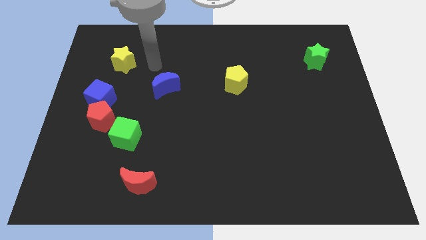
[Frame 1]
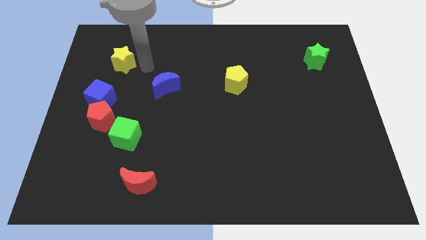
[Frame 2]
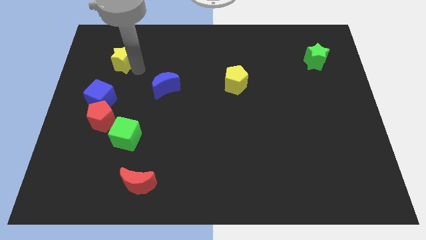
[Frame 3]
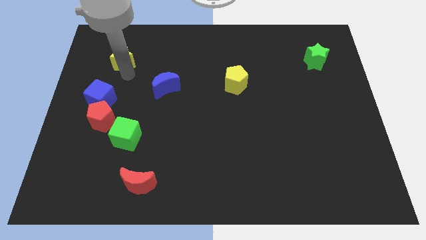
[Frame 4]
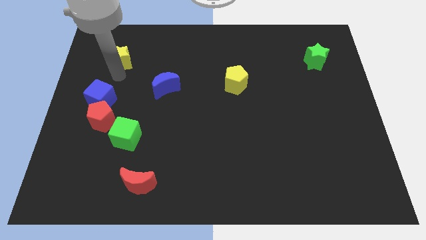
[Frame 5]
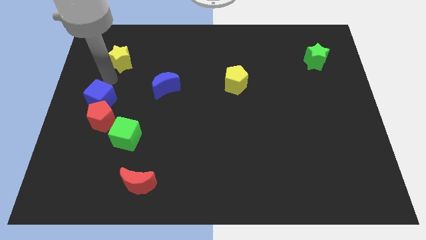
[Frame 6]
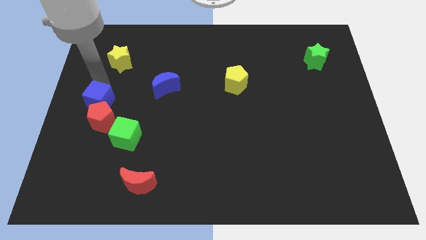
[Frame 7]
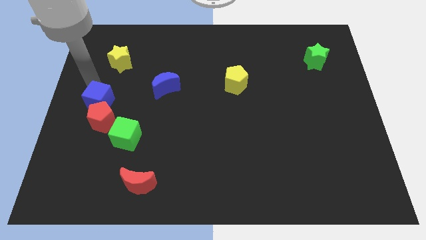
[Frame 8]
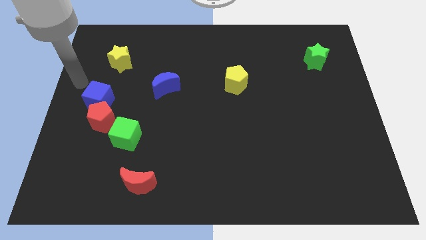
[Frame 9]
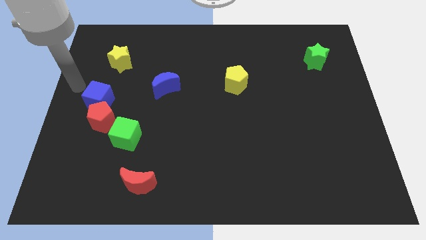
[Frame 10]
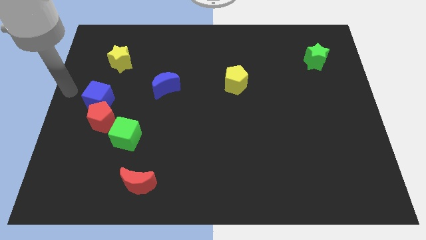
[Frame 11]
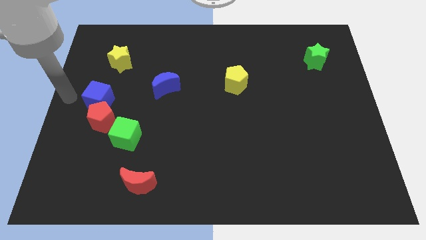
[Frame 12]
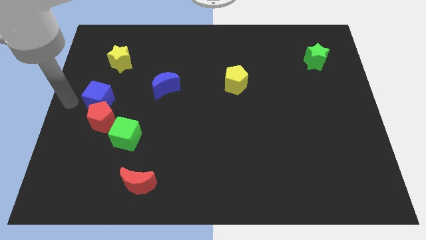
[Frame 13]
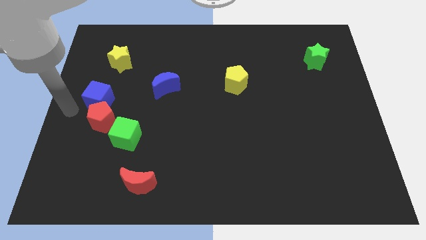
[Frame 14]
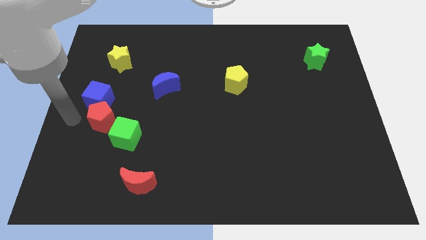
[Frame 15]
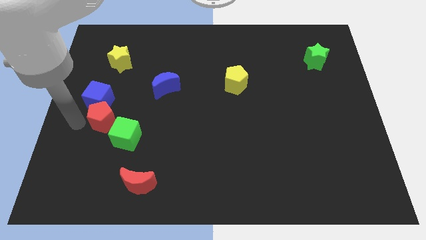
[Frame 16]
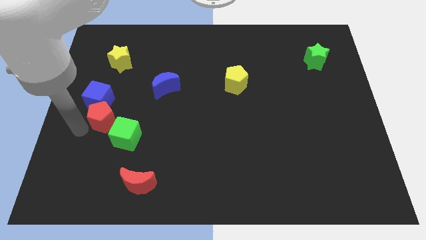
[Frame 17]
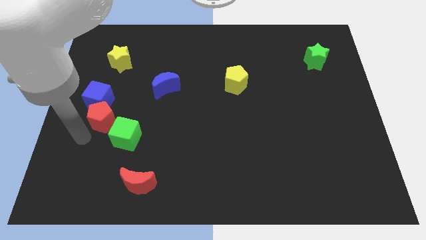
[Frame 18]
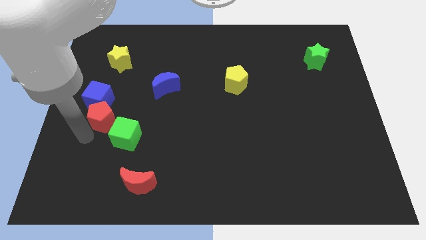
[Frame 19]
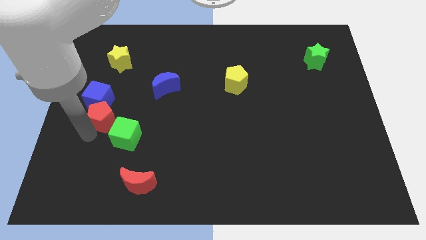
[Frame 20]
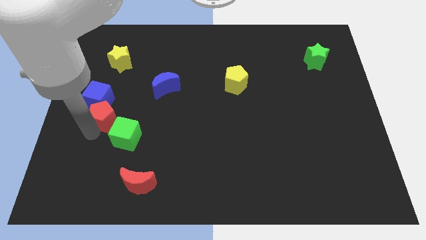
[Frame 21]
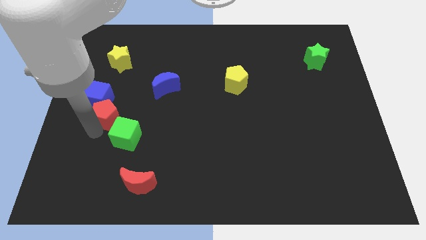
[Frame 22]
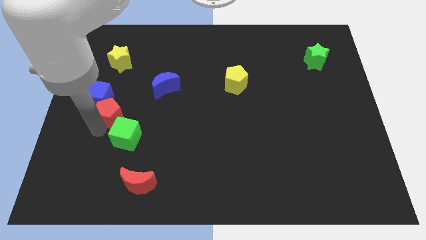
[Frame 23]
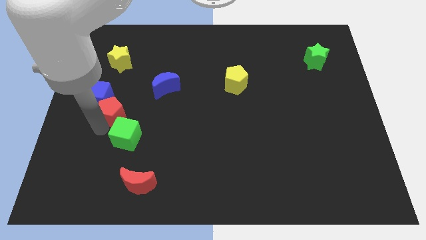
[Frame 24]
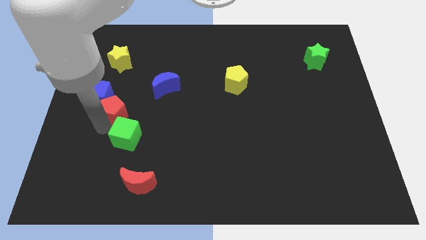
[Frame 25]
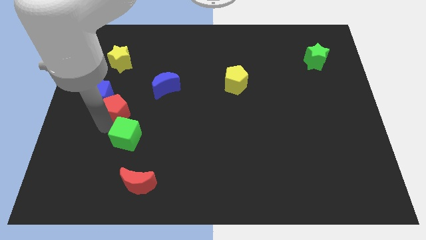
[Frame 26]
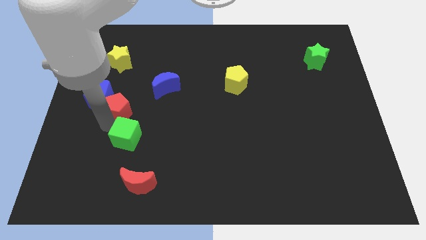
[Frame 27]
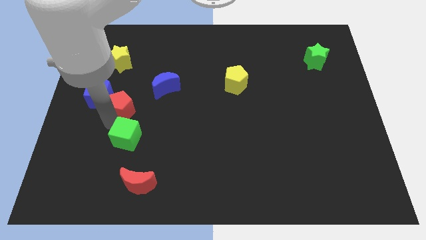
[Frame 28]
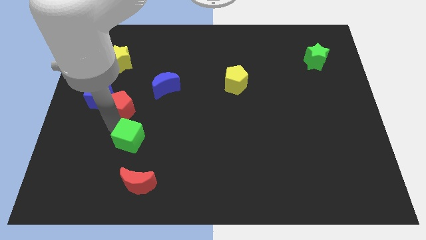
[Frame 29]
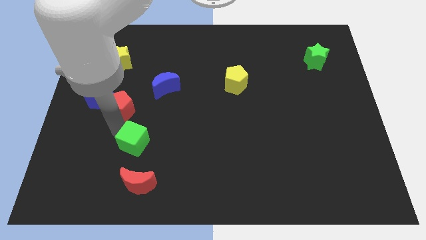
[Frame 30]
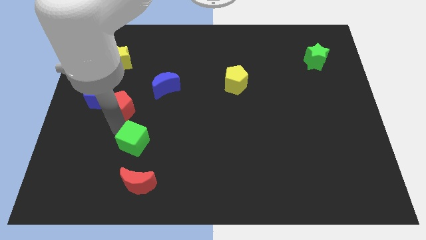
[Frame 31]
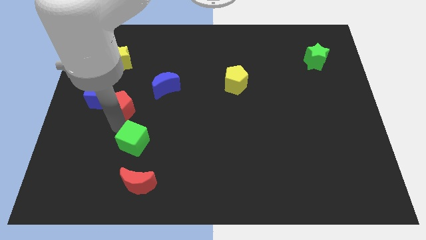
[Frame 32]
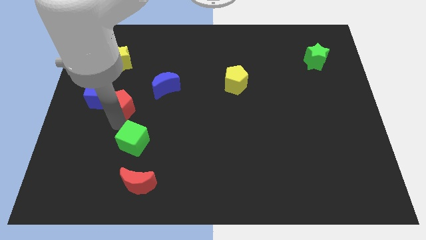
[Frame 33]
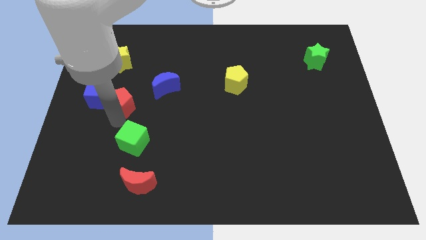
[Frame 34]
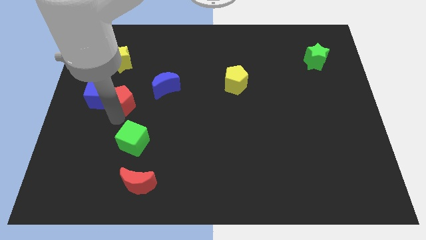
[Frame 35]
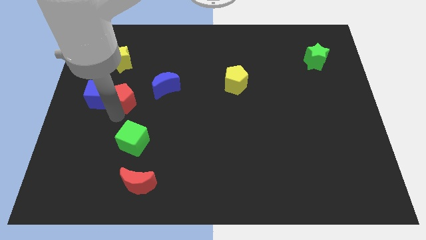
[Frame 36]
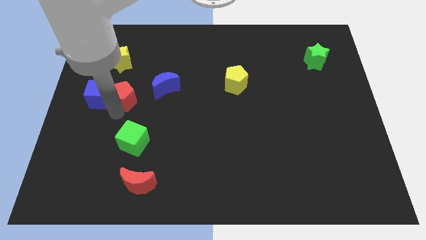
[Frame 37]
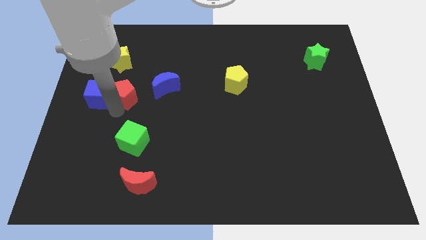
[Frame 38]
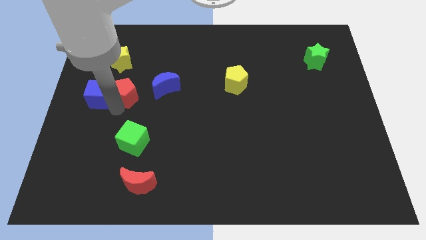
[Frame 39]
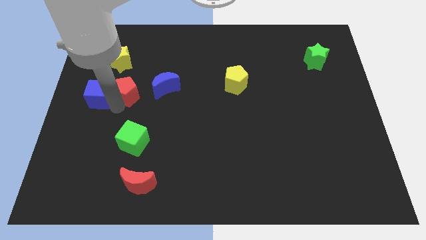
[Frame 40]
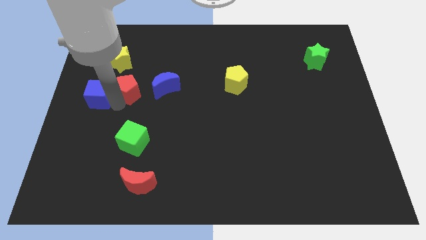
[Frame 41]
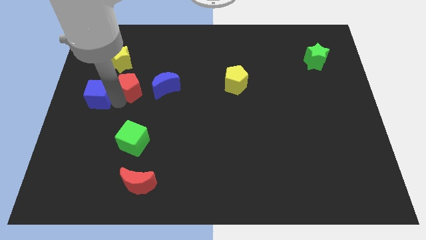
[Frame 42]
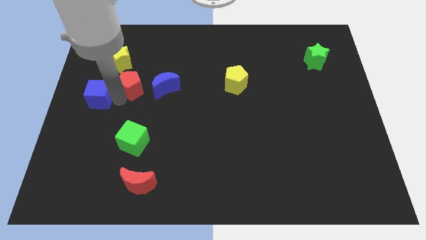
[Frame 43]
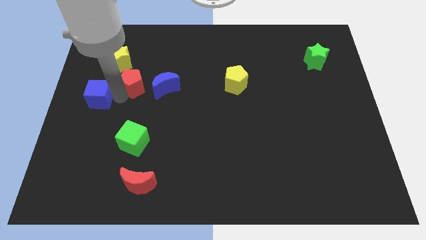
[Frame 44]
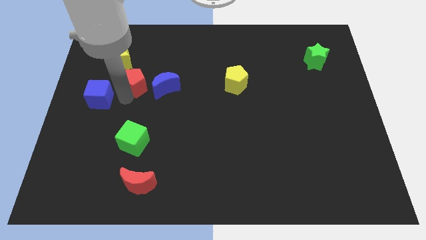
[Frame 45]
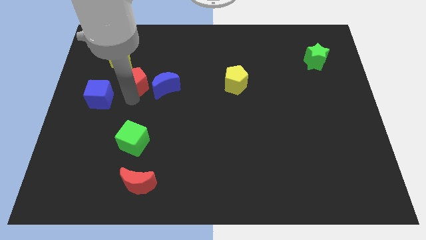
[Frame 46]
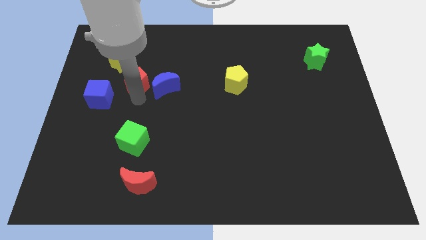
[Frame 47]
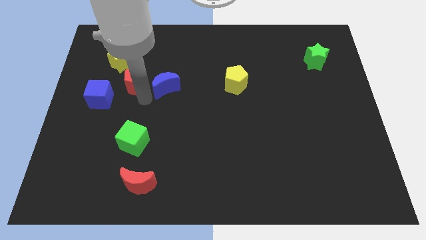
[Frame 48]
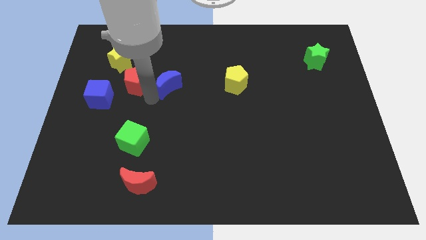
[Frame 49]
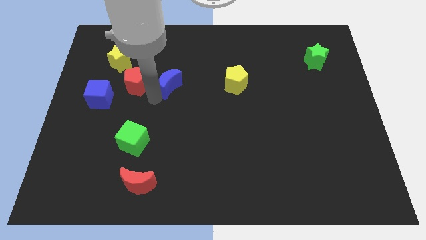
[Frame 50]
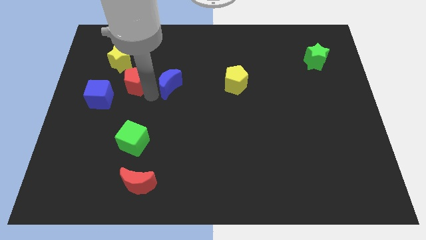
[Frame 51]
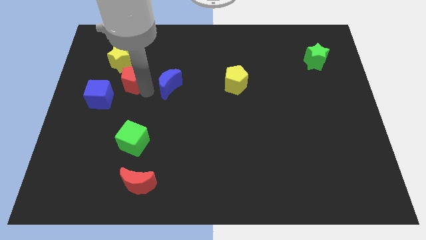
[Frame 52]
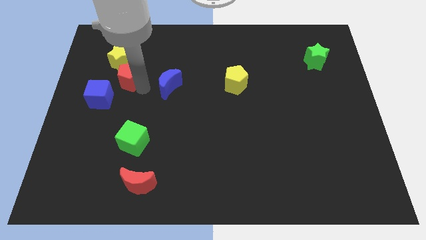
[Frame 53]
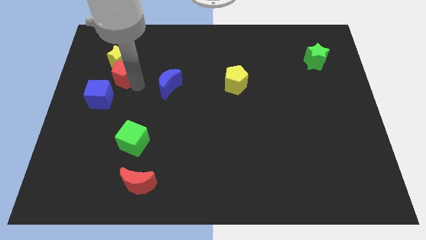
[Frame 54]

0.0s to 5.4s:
move the red pentagon close to the yellow star
